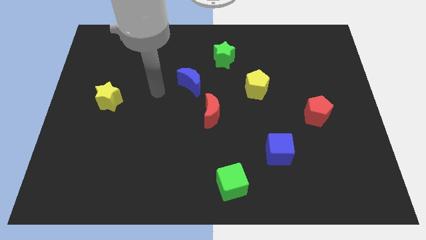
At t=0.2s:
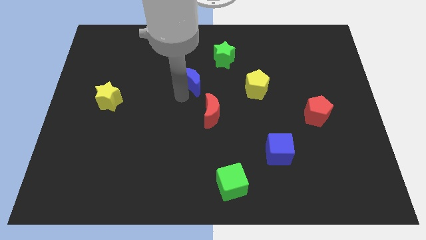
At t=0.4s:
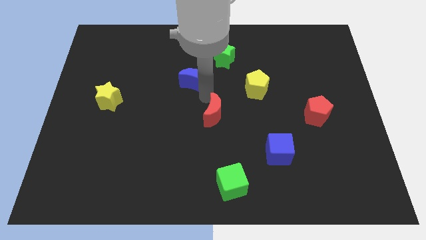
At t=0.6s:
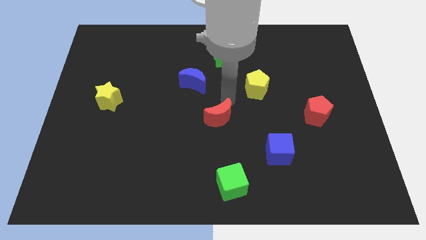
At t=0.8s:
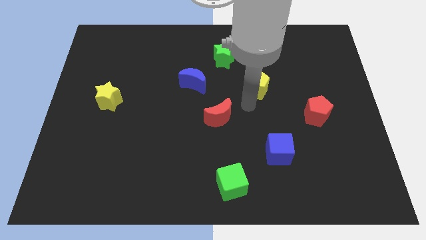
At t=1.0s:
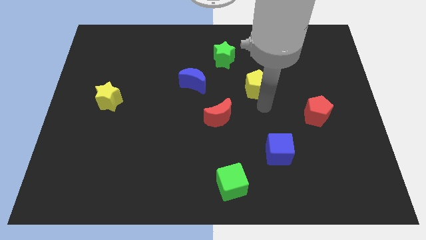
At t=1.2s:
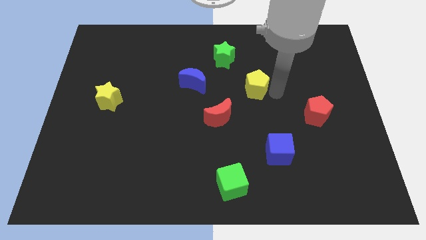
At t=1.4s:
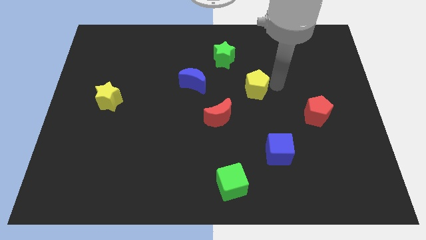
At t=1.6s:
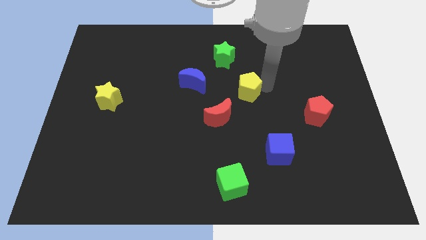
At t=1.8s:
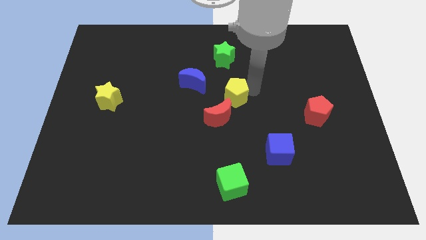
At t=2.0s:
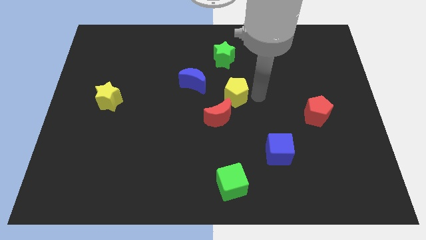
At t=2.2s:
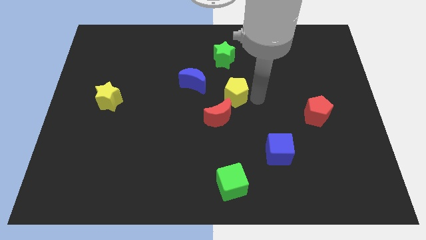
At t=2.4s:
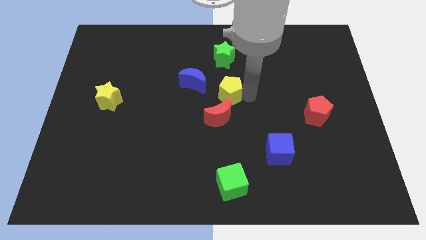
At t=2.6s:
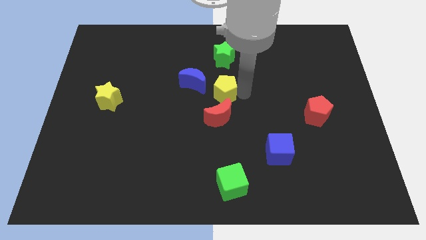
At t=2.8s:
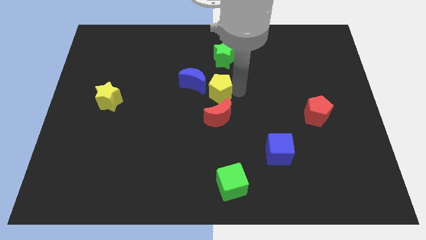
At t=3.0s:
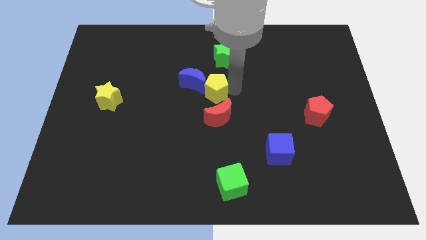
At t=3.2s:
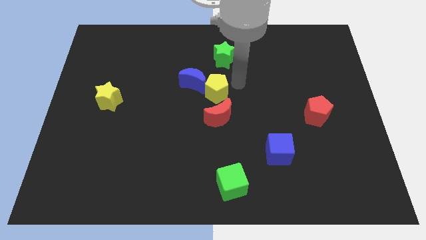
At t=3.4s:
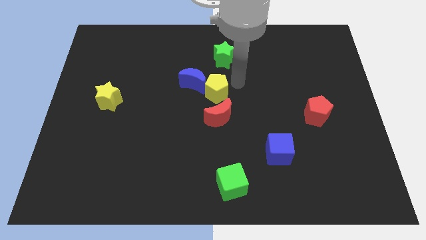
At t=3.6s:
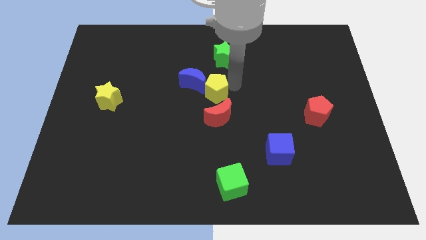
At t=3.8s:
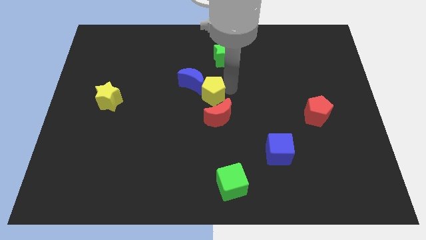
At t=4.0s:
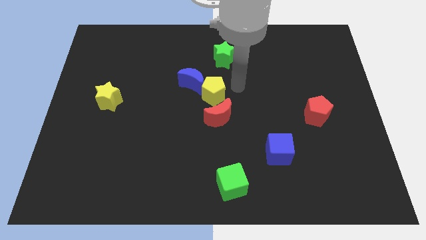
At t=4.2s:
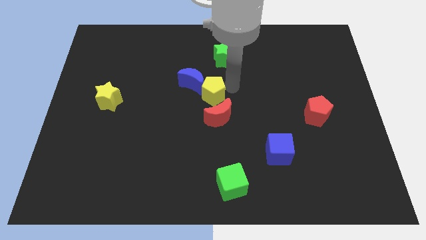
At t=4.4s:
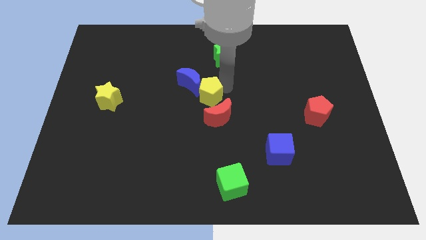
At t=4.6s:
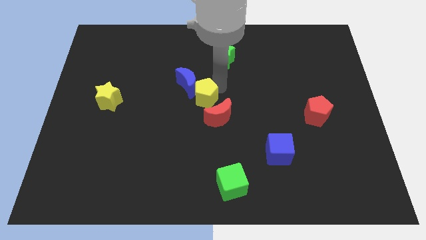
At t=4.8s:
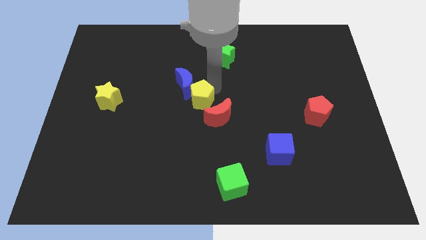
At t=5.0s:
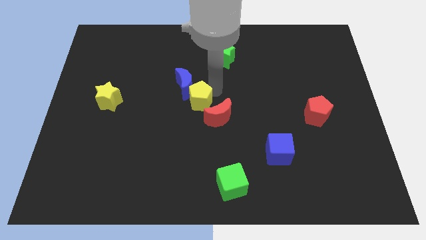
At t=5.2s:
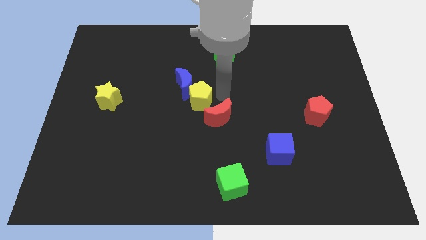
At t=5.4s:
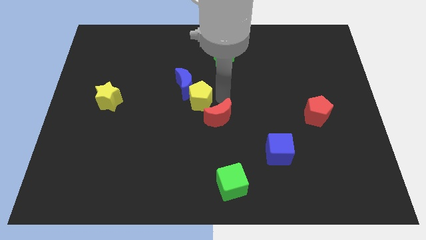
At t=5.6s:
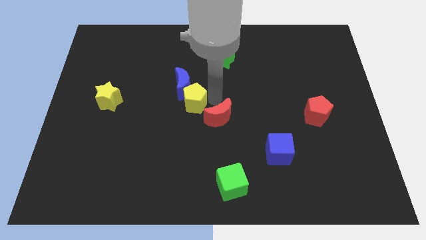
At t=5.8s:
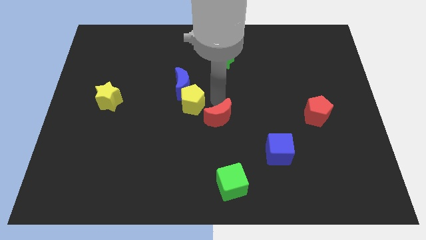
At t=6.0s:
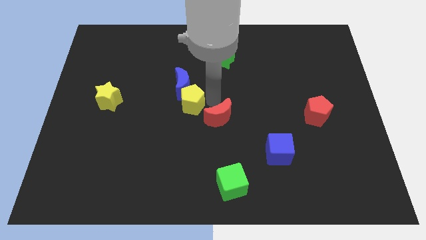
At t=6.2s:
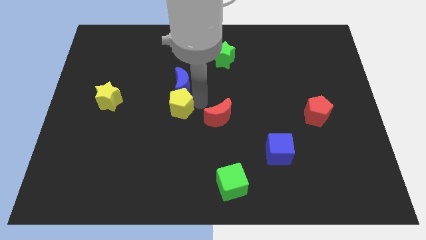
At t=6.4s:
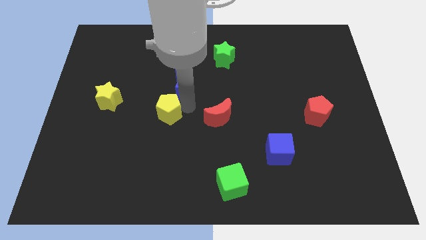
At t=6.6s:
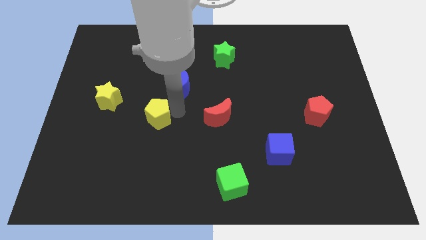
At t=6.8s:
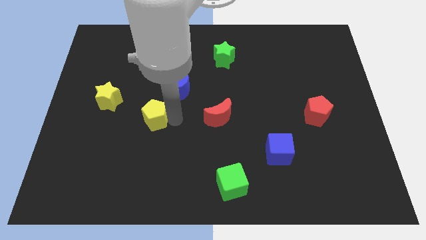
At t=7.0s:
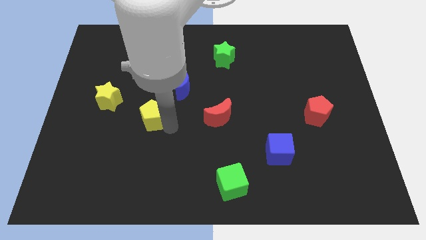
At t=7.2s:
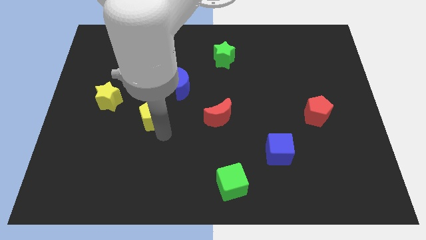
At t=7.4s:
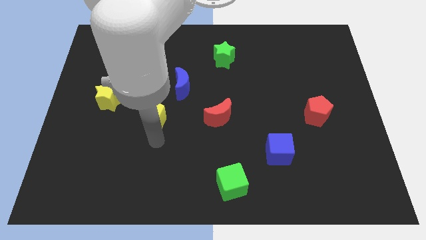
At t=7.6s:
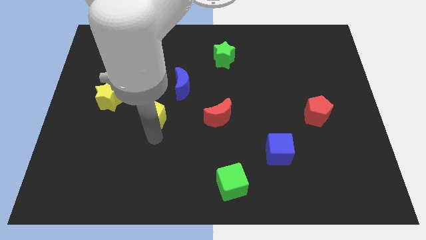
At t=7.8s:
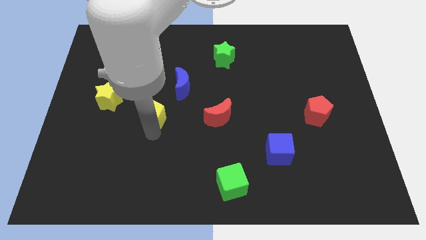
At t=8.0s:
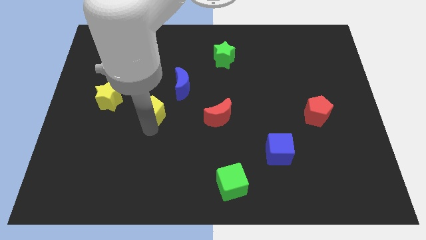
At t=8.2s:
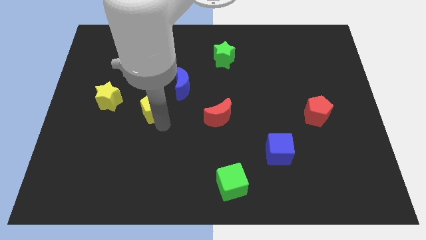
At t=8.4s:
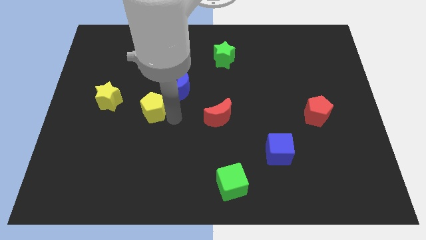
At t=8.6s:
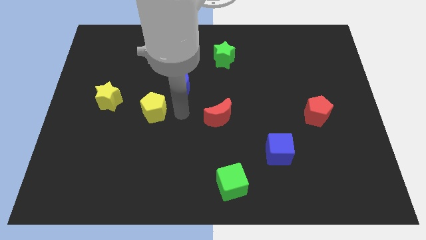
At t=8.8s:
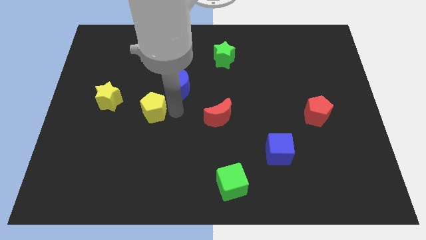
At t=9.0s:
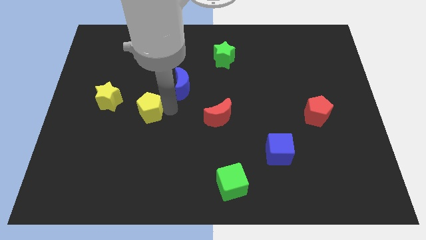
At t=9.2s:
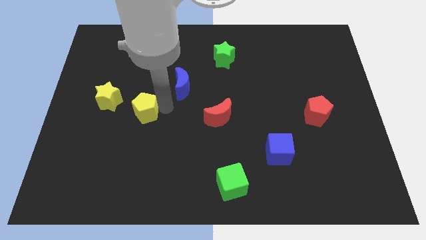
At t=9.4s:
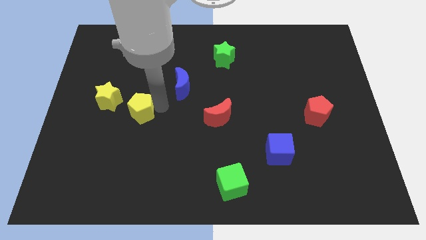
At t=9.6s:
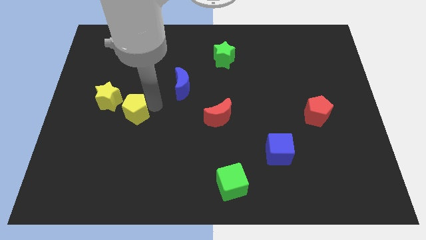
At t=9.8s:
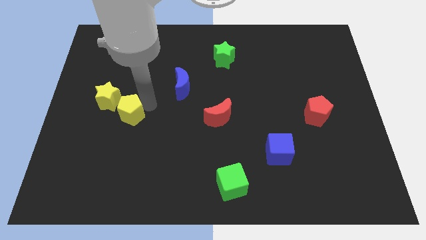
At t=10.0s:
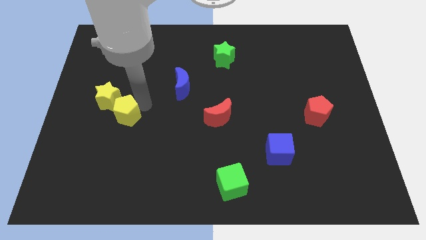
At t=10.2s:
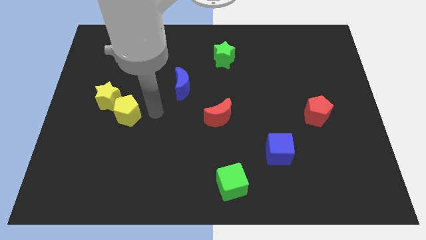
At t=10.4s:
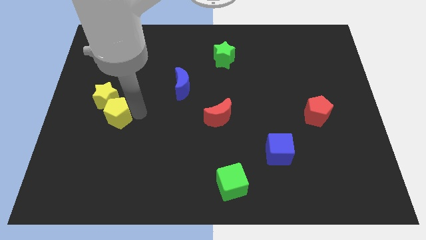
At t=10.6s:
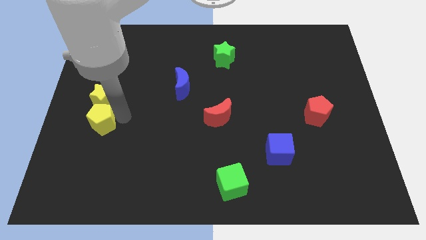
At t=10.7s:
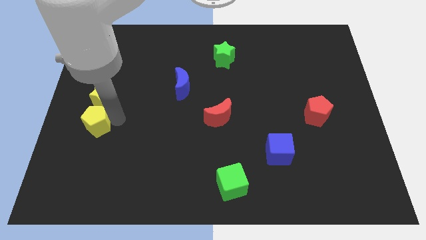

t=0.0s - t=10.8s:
slide the yellow pentagon to the left side

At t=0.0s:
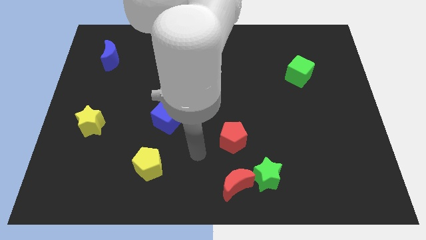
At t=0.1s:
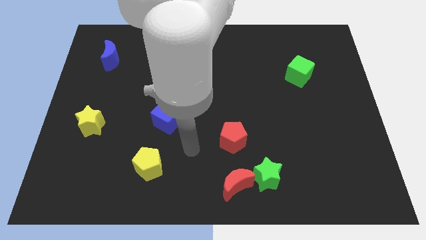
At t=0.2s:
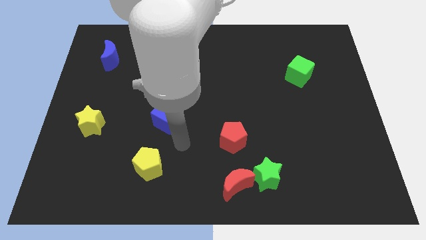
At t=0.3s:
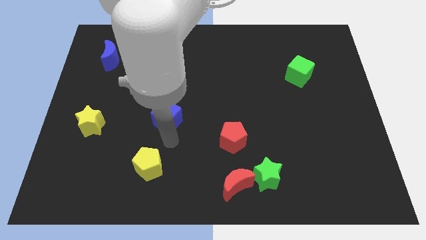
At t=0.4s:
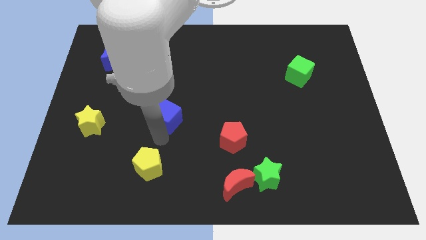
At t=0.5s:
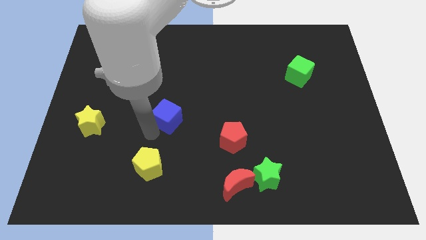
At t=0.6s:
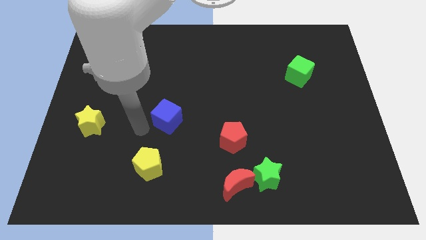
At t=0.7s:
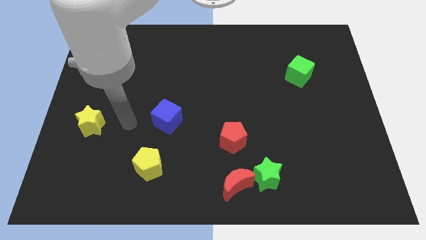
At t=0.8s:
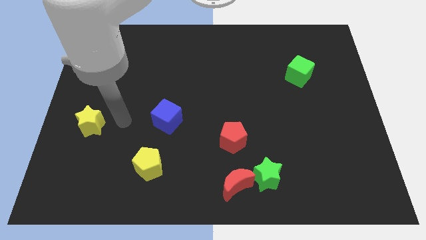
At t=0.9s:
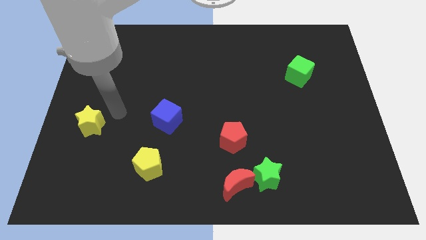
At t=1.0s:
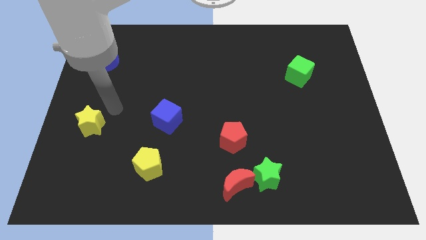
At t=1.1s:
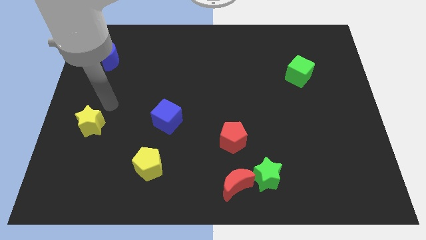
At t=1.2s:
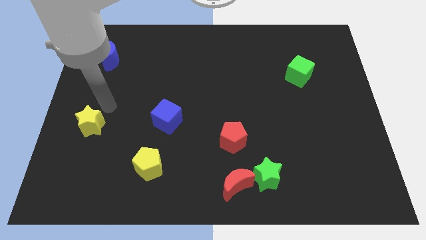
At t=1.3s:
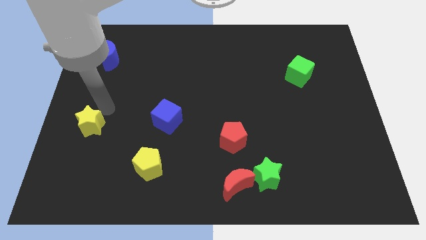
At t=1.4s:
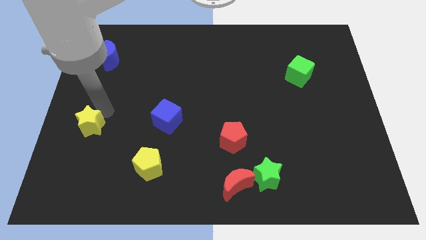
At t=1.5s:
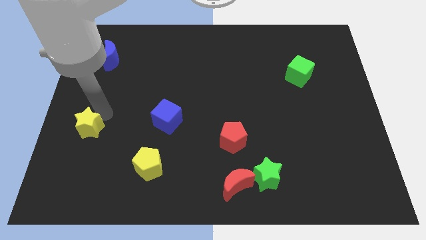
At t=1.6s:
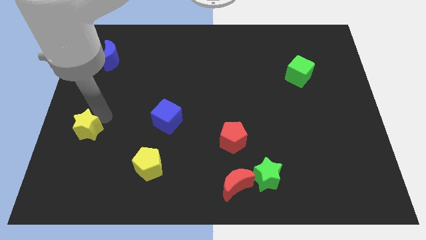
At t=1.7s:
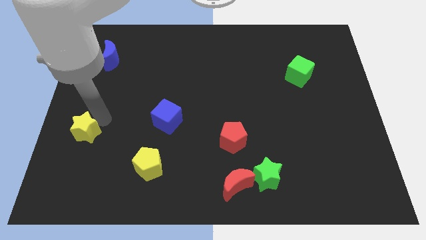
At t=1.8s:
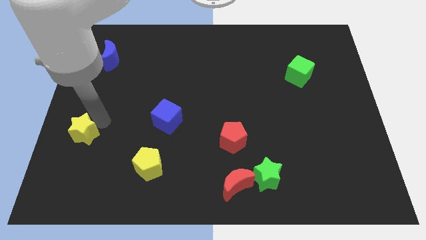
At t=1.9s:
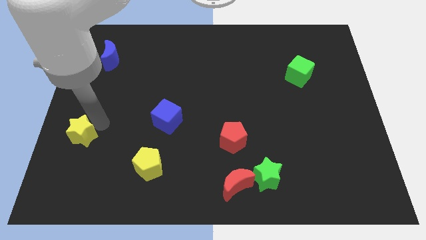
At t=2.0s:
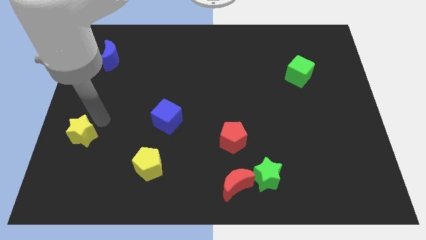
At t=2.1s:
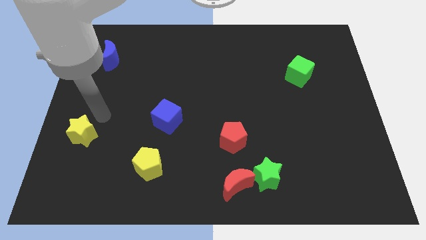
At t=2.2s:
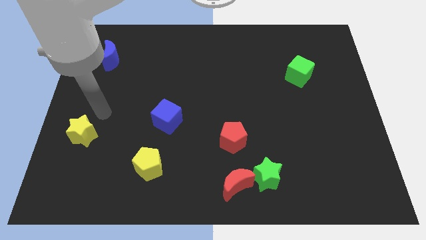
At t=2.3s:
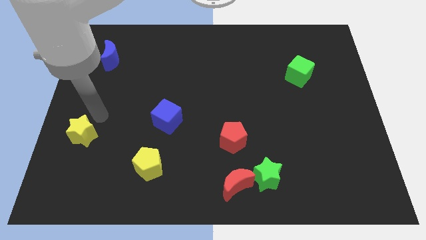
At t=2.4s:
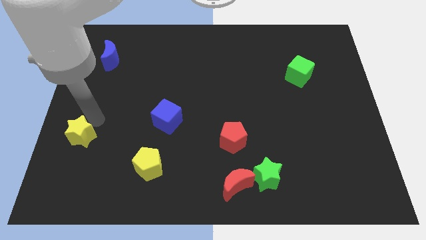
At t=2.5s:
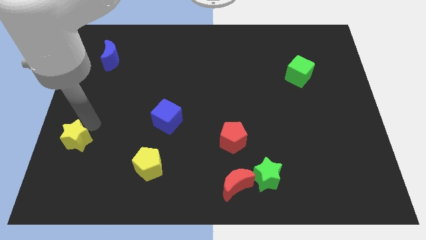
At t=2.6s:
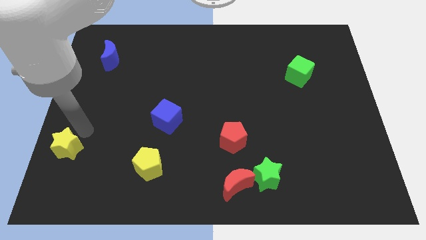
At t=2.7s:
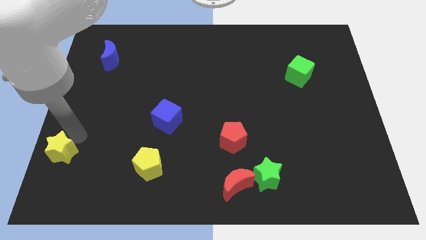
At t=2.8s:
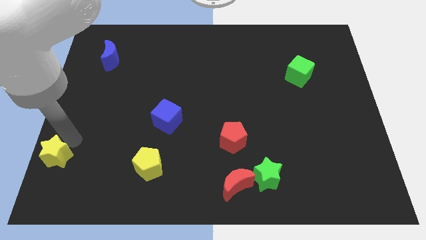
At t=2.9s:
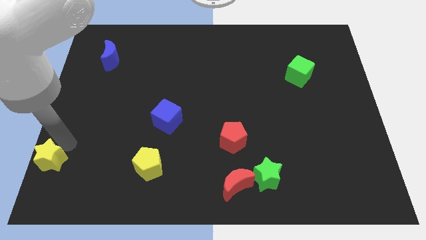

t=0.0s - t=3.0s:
push the yellow star to the bottom left
